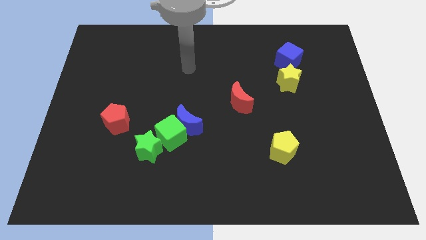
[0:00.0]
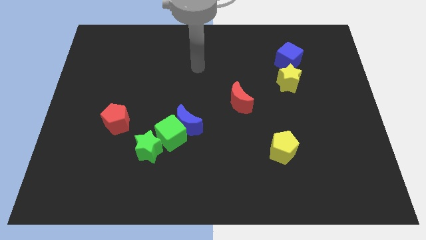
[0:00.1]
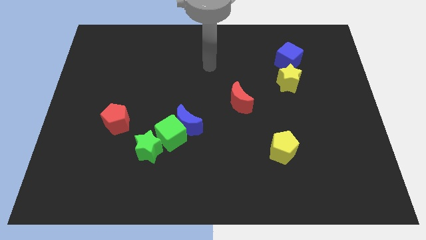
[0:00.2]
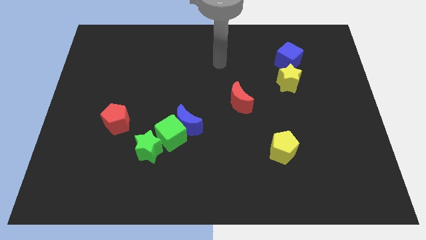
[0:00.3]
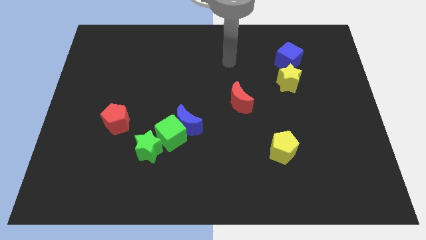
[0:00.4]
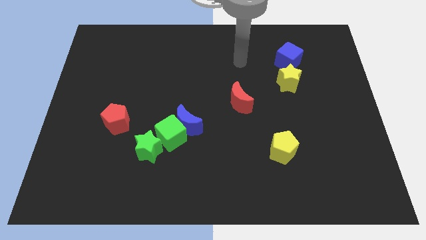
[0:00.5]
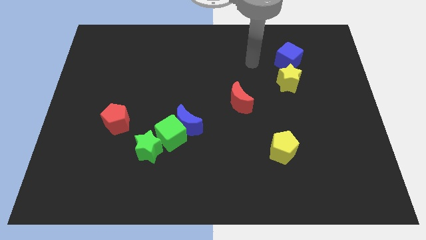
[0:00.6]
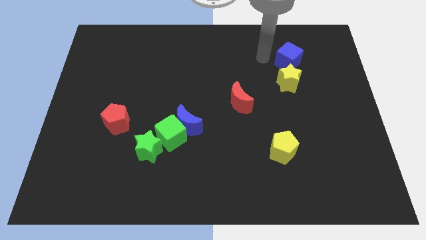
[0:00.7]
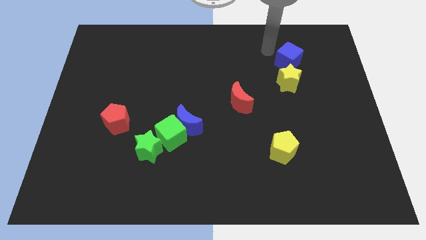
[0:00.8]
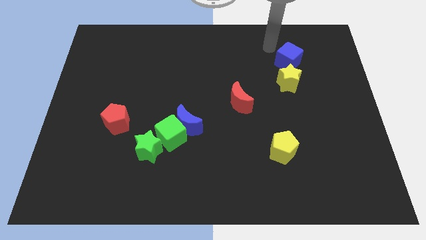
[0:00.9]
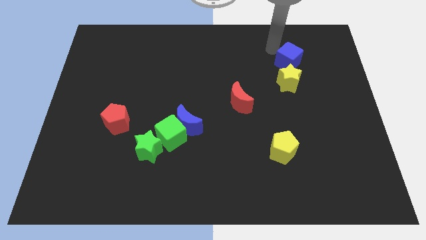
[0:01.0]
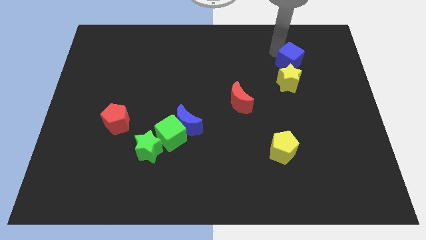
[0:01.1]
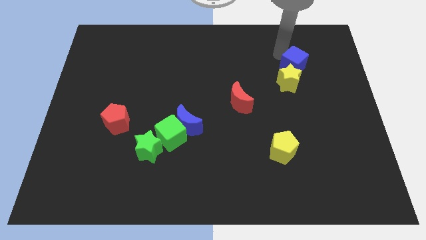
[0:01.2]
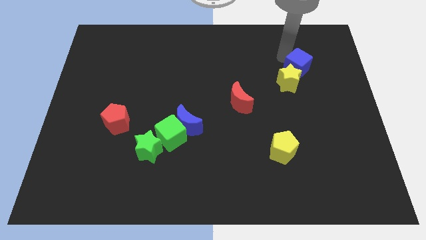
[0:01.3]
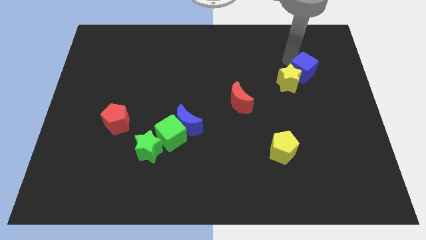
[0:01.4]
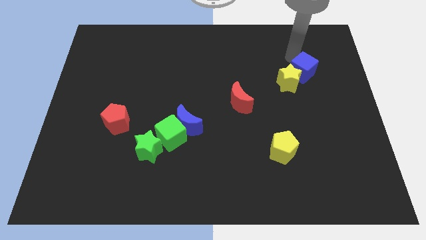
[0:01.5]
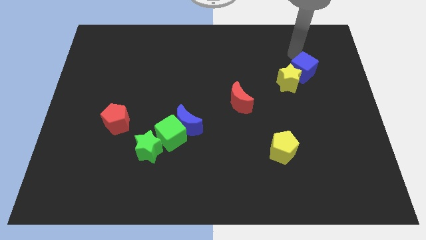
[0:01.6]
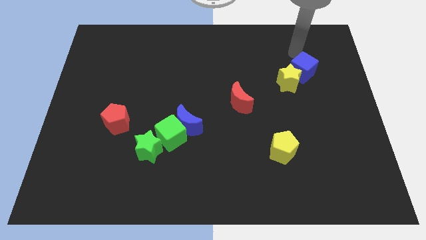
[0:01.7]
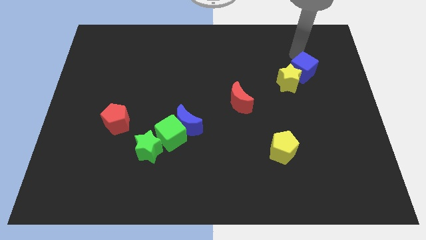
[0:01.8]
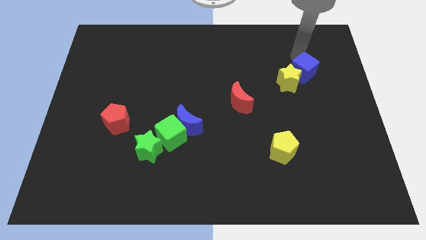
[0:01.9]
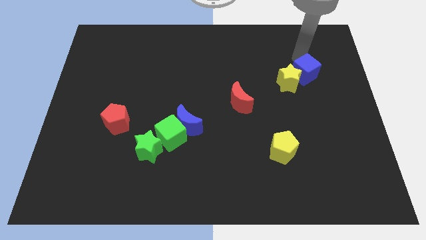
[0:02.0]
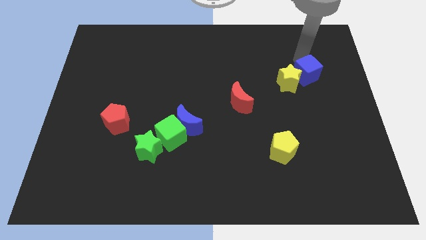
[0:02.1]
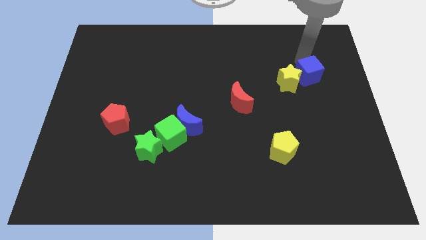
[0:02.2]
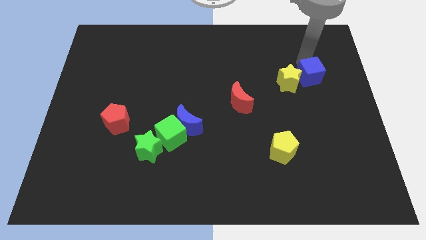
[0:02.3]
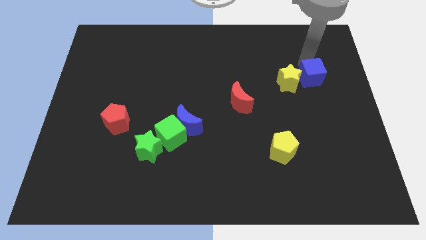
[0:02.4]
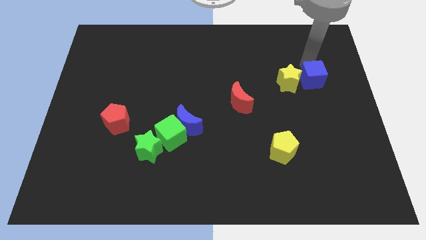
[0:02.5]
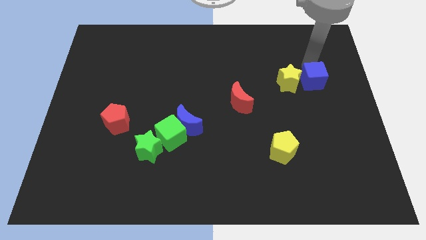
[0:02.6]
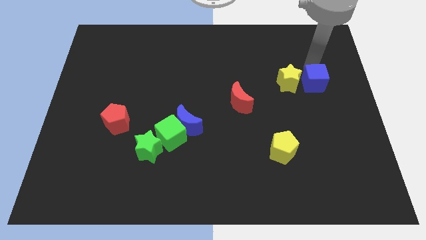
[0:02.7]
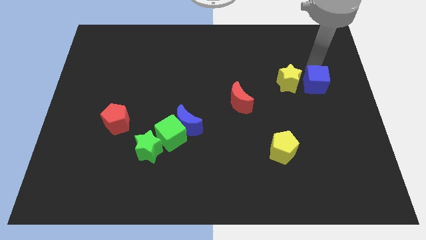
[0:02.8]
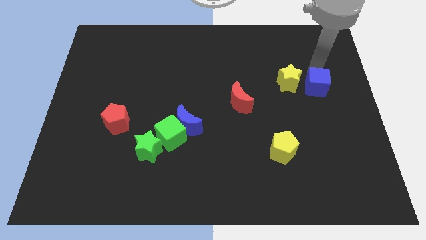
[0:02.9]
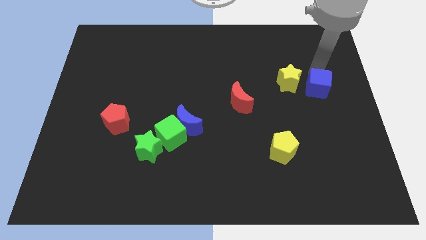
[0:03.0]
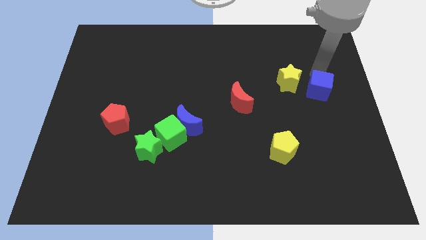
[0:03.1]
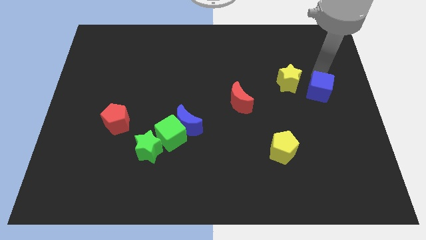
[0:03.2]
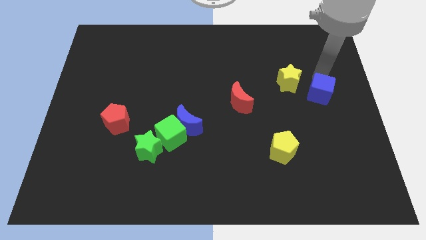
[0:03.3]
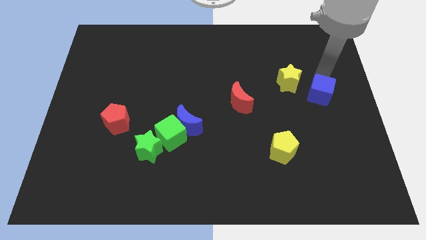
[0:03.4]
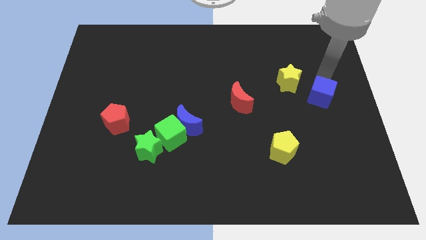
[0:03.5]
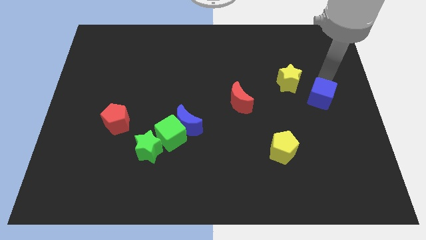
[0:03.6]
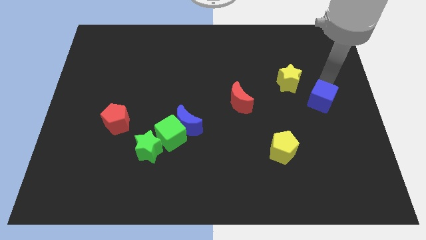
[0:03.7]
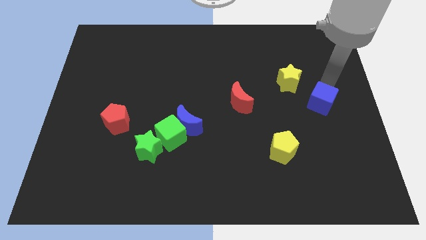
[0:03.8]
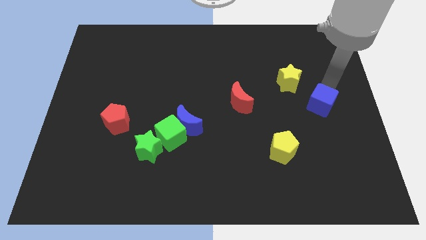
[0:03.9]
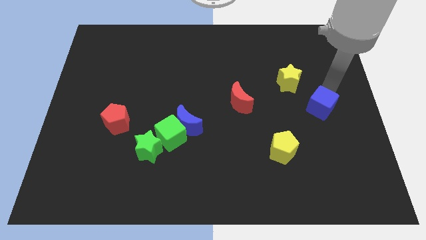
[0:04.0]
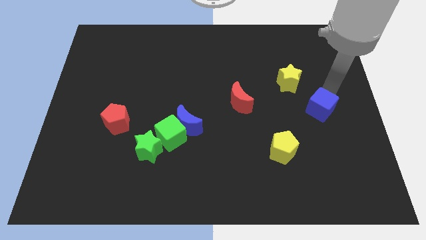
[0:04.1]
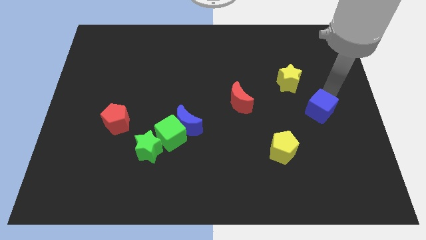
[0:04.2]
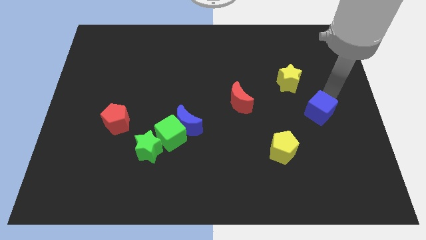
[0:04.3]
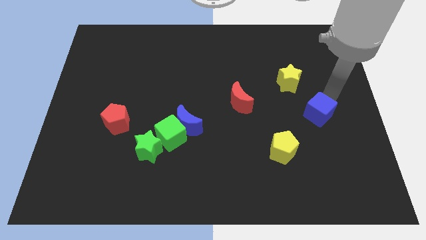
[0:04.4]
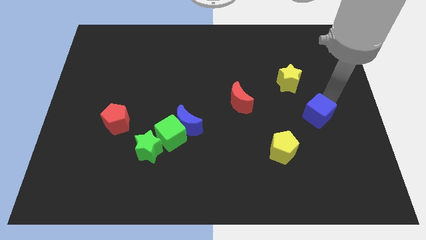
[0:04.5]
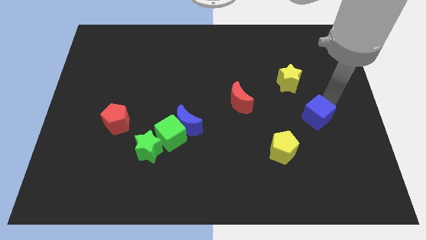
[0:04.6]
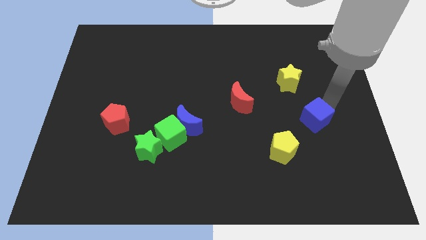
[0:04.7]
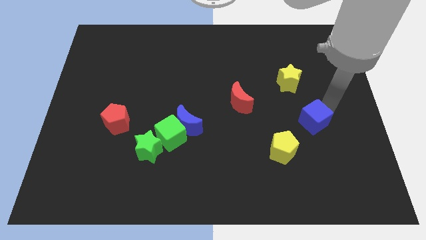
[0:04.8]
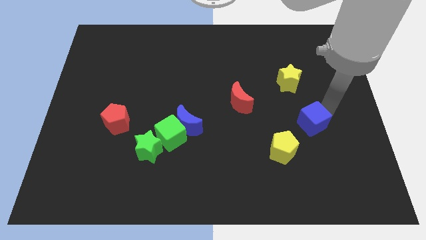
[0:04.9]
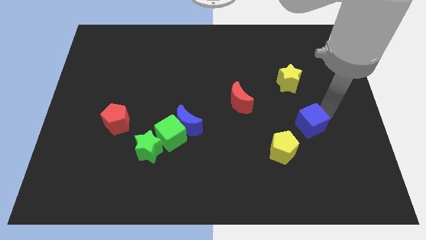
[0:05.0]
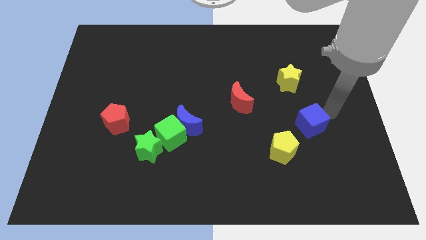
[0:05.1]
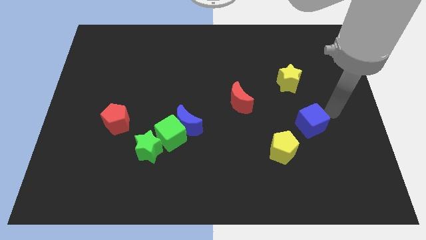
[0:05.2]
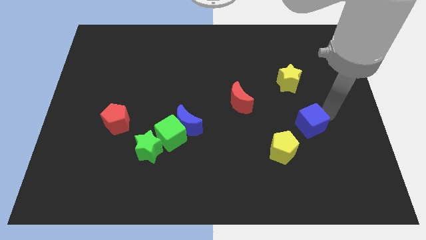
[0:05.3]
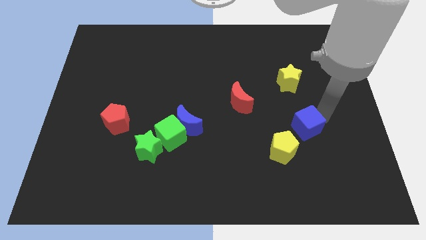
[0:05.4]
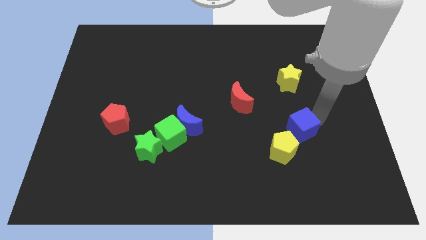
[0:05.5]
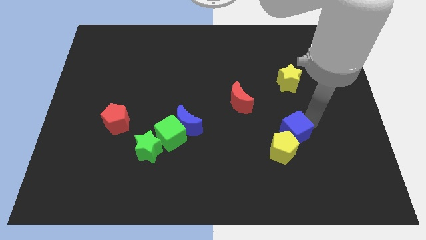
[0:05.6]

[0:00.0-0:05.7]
slide the blue cube close to the yellow pentagon

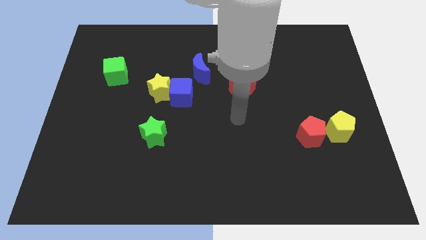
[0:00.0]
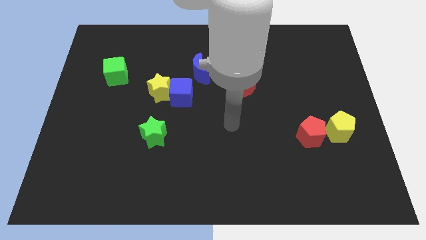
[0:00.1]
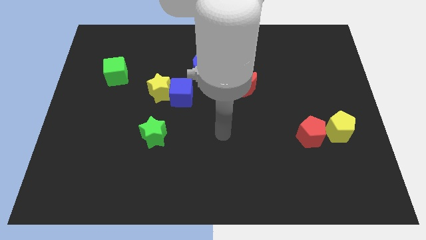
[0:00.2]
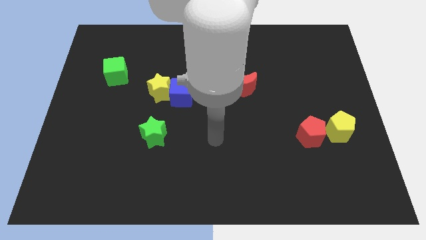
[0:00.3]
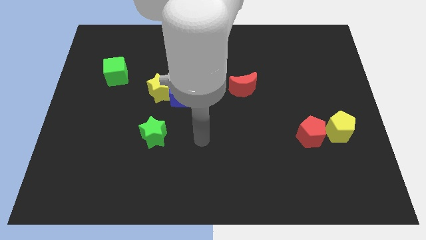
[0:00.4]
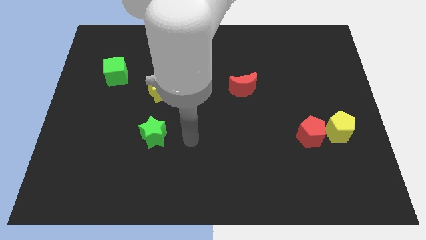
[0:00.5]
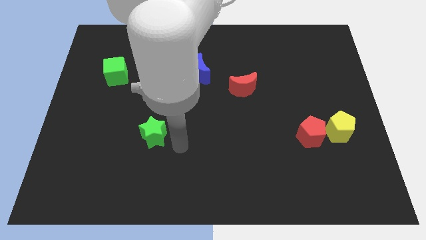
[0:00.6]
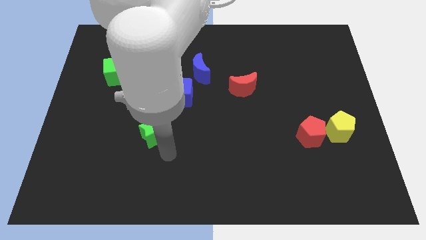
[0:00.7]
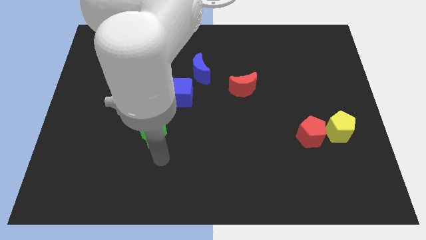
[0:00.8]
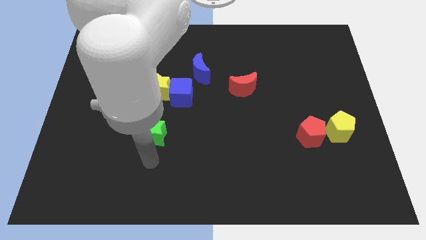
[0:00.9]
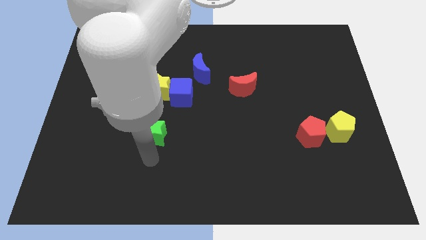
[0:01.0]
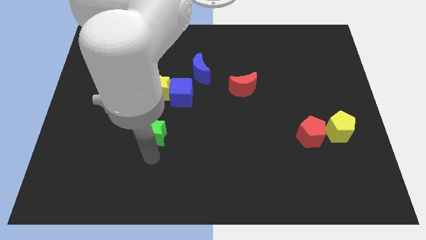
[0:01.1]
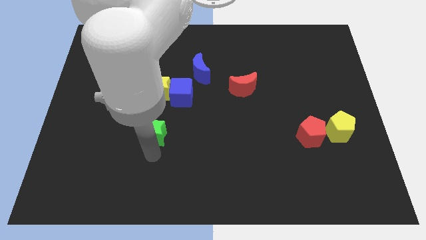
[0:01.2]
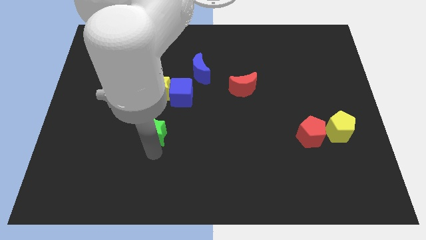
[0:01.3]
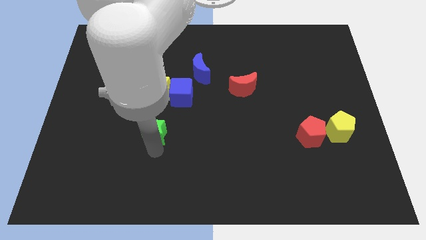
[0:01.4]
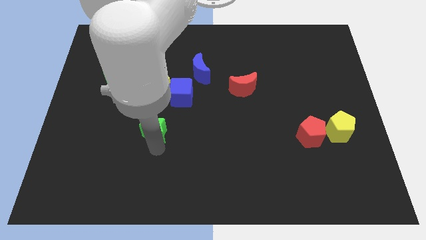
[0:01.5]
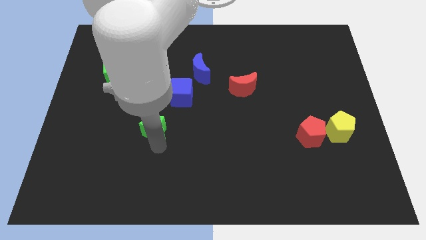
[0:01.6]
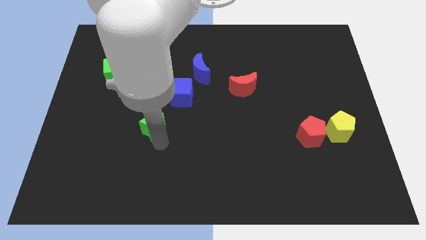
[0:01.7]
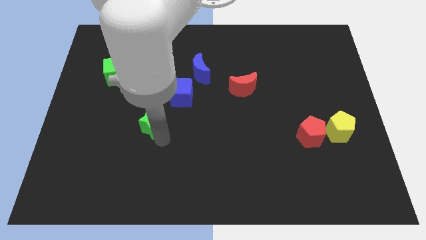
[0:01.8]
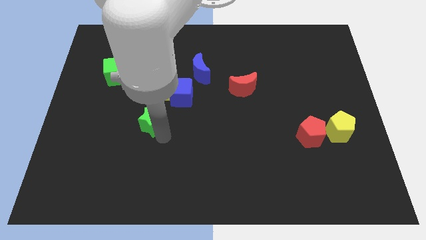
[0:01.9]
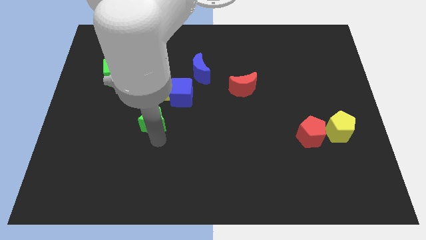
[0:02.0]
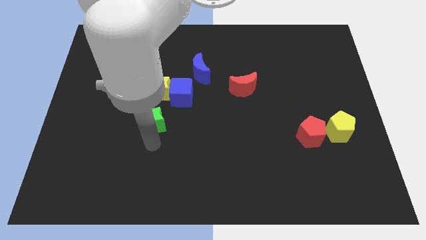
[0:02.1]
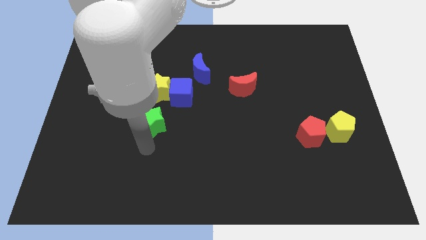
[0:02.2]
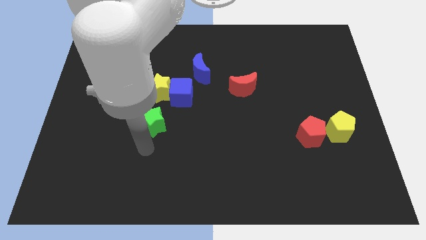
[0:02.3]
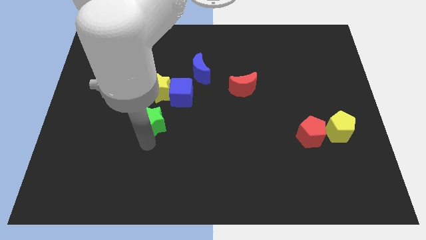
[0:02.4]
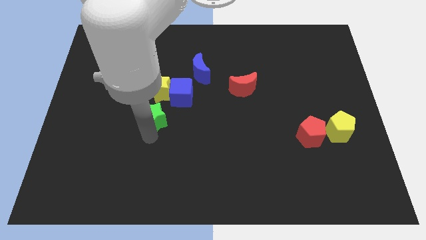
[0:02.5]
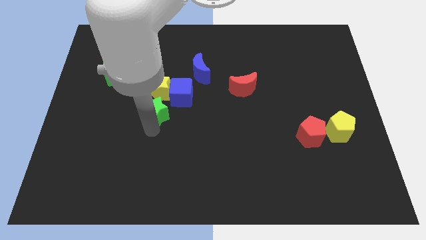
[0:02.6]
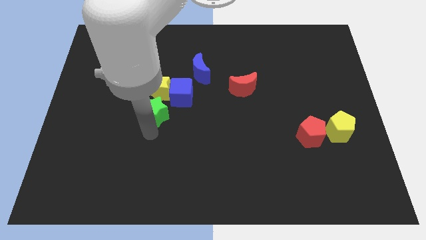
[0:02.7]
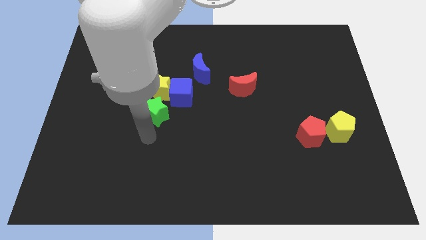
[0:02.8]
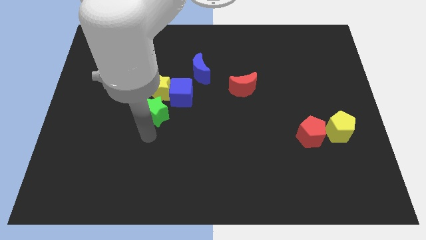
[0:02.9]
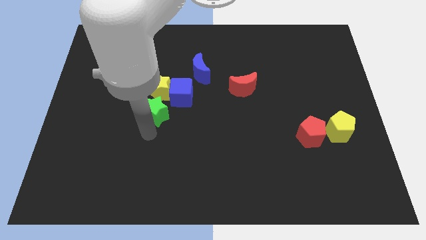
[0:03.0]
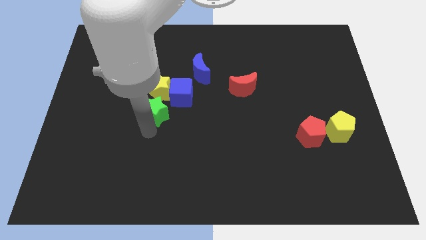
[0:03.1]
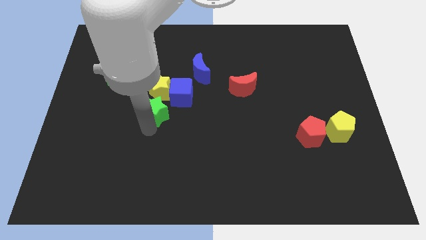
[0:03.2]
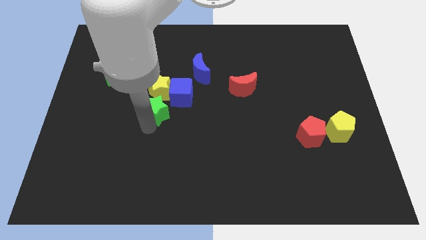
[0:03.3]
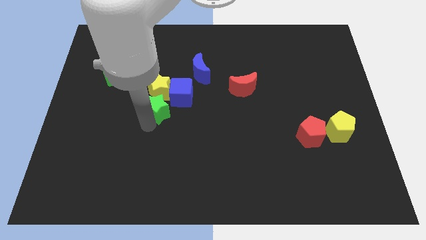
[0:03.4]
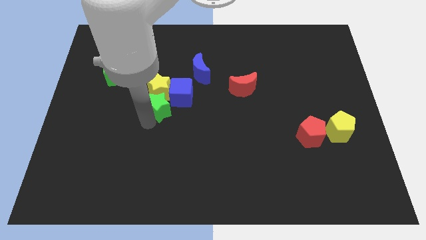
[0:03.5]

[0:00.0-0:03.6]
move the green star close to the yellow star
